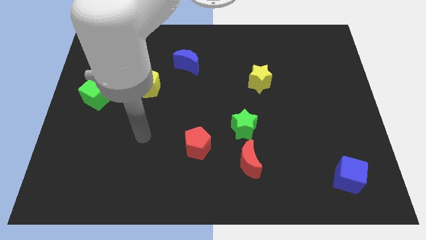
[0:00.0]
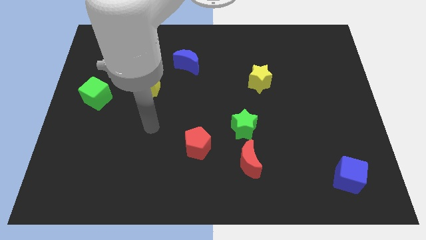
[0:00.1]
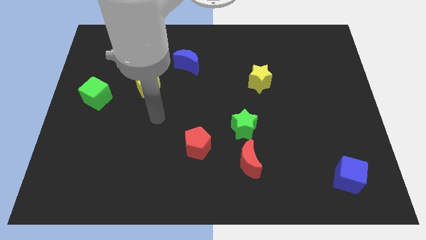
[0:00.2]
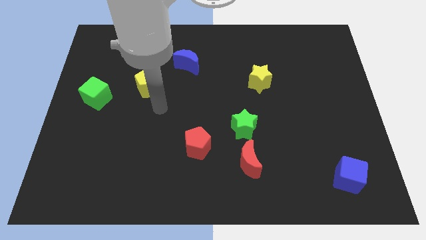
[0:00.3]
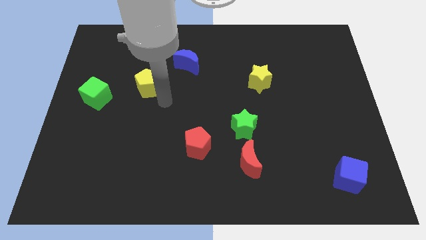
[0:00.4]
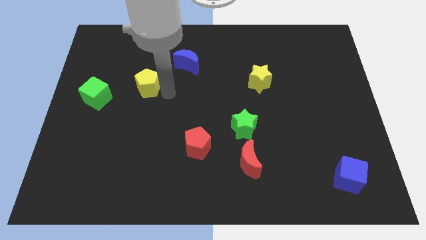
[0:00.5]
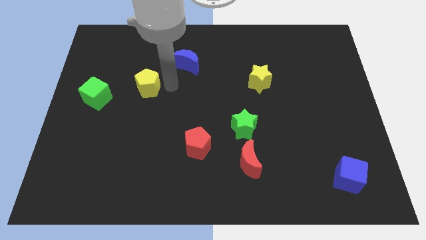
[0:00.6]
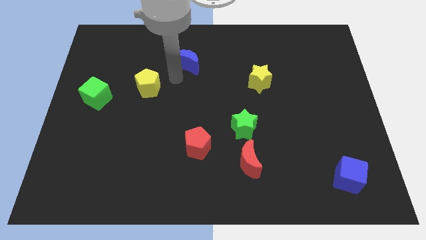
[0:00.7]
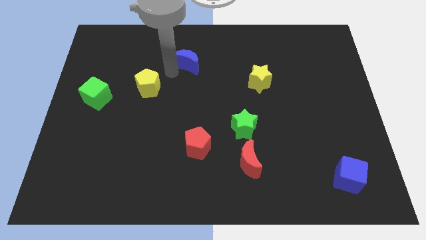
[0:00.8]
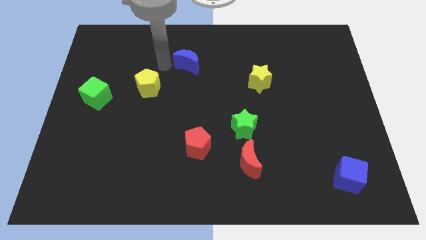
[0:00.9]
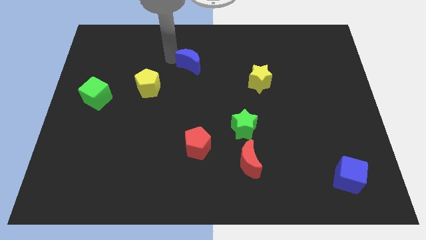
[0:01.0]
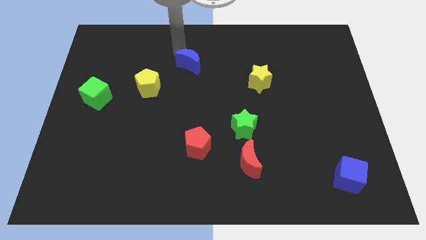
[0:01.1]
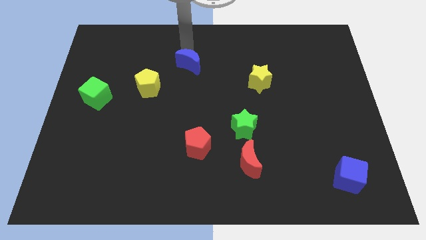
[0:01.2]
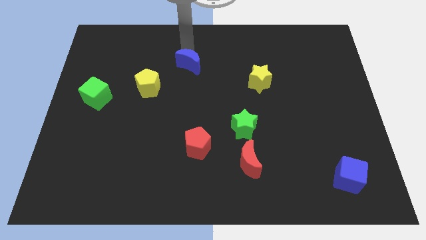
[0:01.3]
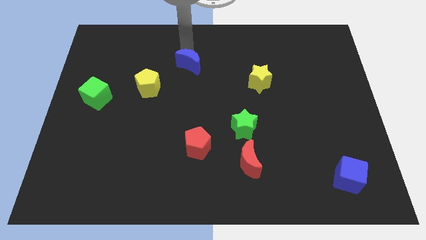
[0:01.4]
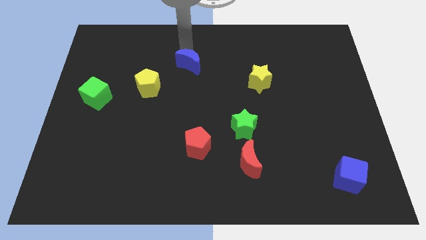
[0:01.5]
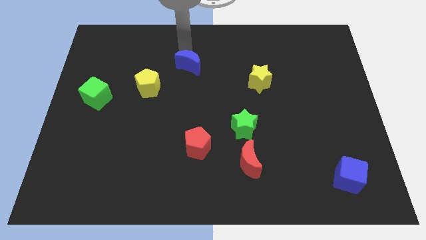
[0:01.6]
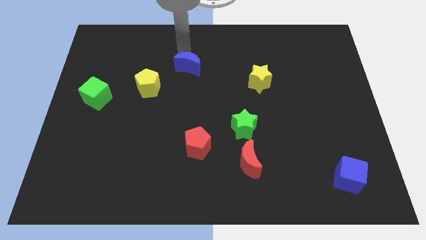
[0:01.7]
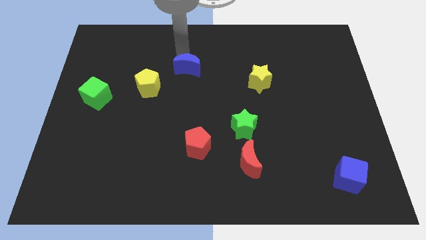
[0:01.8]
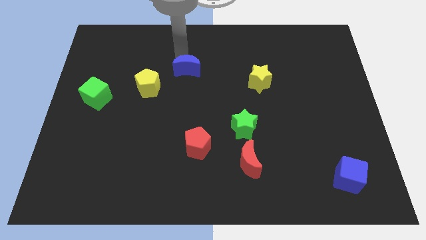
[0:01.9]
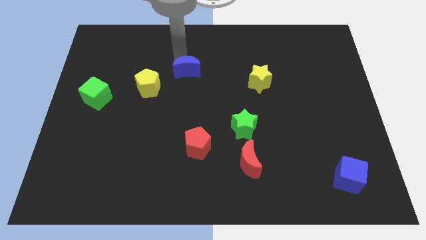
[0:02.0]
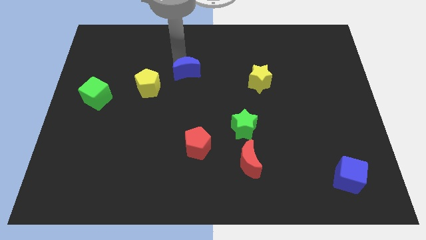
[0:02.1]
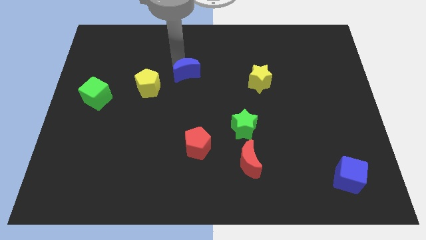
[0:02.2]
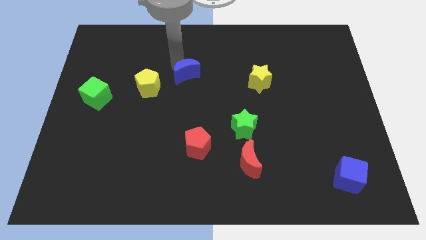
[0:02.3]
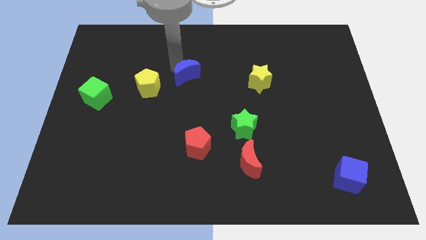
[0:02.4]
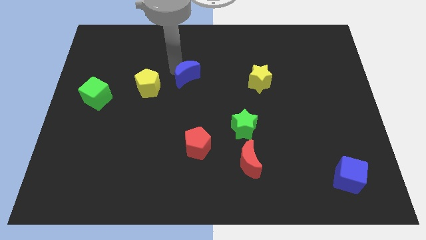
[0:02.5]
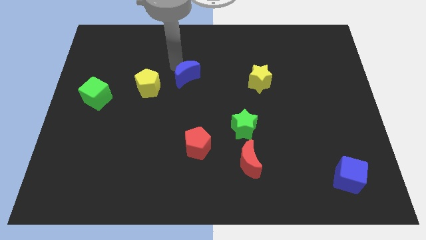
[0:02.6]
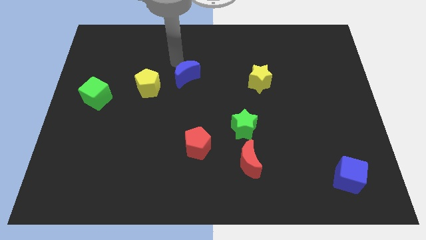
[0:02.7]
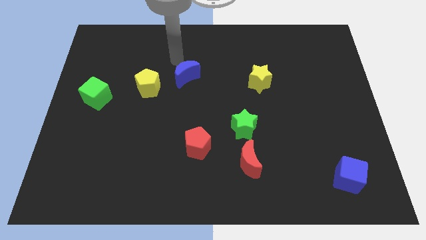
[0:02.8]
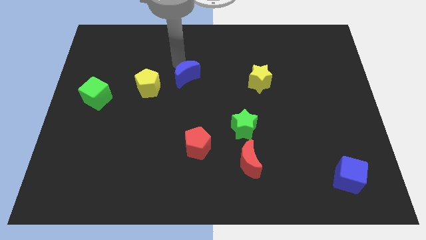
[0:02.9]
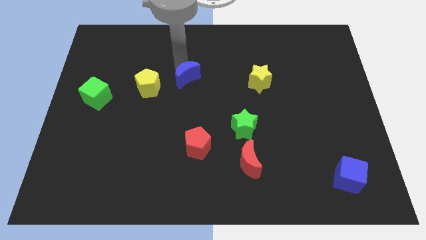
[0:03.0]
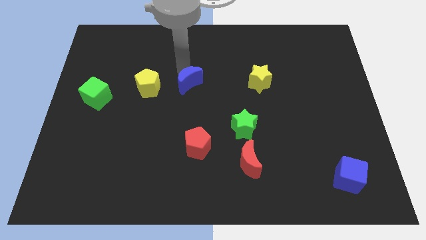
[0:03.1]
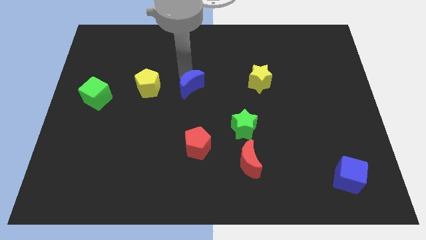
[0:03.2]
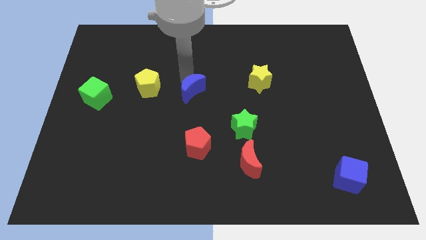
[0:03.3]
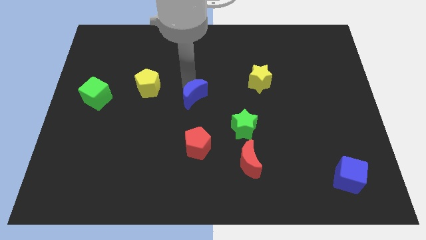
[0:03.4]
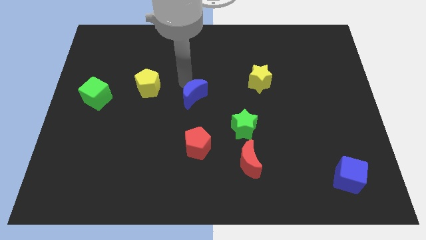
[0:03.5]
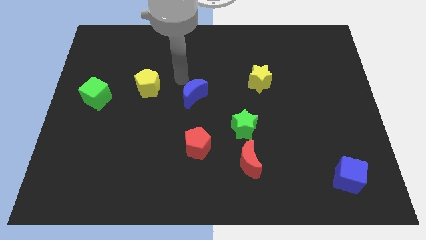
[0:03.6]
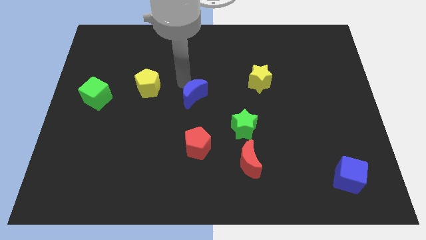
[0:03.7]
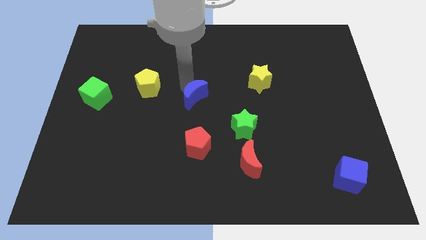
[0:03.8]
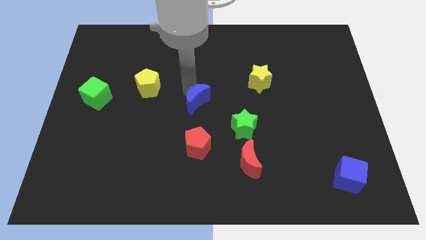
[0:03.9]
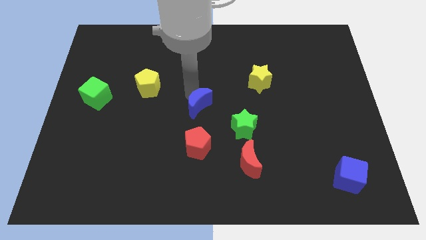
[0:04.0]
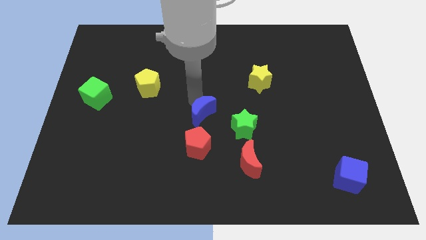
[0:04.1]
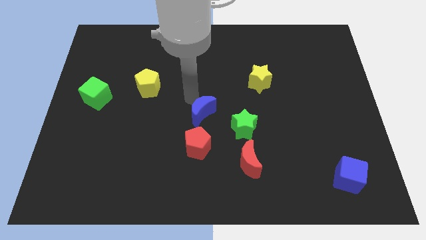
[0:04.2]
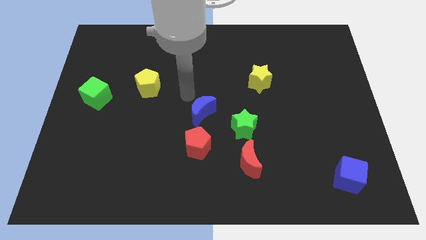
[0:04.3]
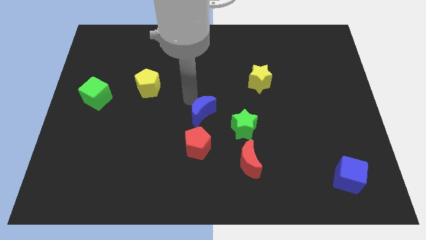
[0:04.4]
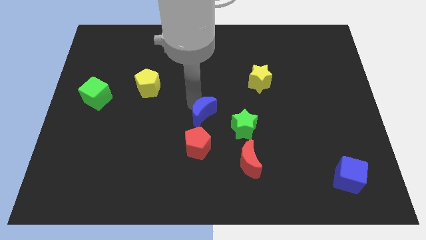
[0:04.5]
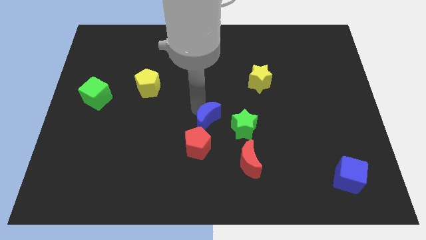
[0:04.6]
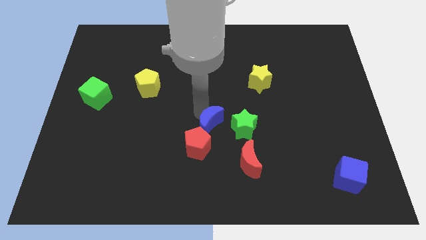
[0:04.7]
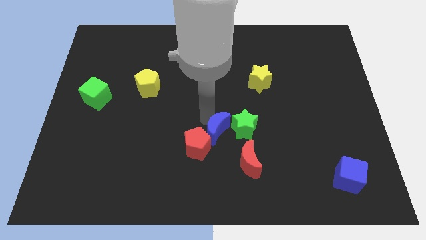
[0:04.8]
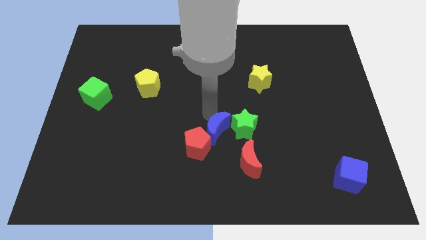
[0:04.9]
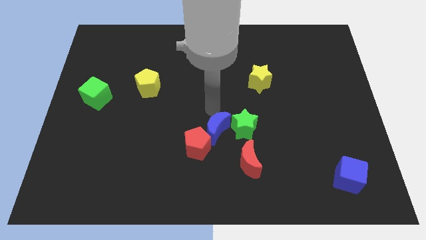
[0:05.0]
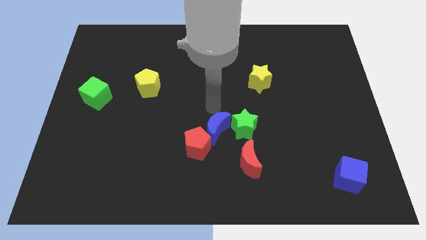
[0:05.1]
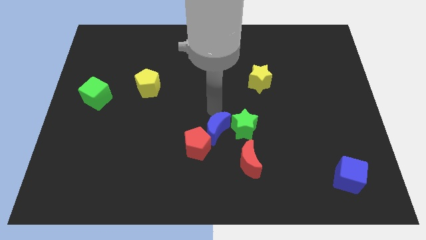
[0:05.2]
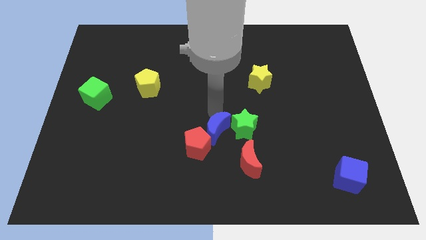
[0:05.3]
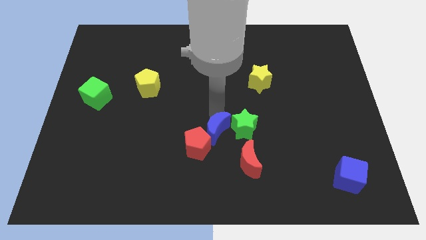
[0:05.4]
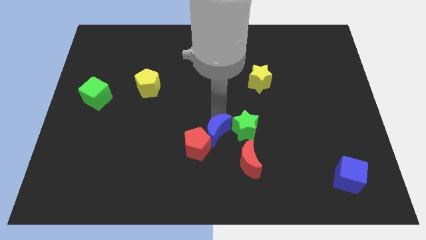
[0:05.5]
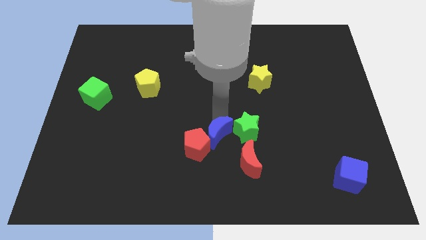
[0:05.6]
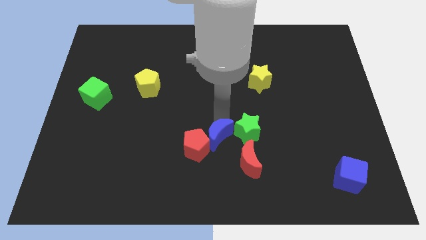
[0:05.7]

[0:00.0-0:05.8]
move the blue moon down

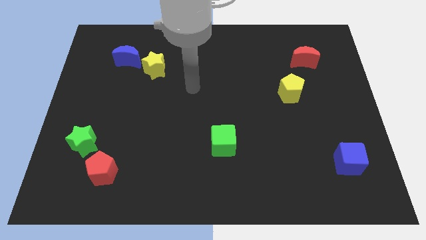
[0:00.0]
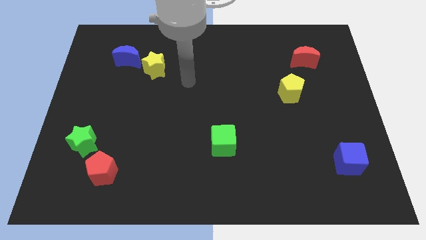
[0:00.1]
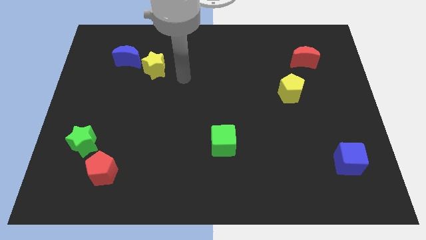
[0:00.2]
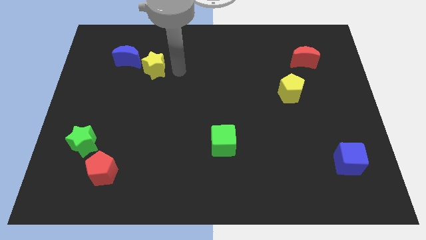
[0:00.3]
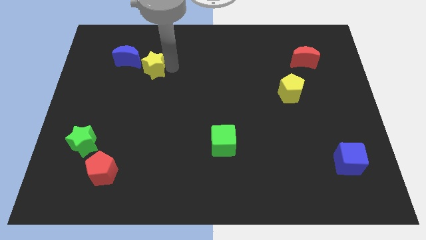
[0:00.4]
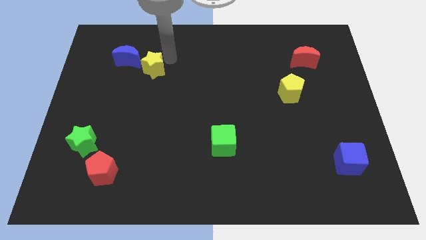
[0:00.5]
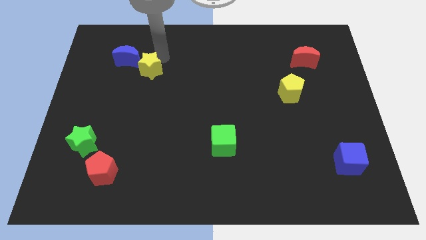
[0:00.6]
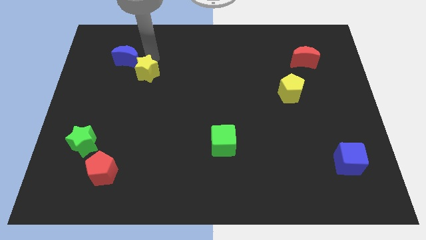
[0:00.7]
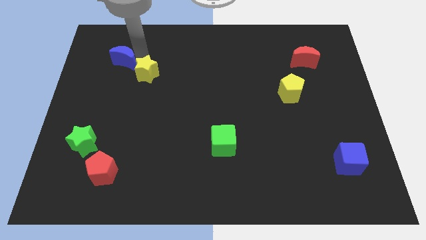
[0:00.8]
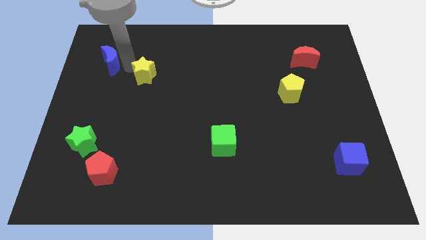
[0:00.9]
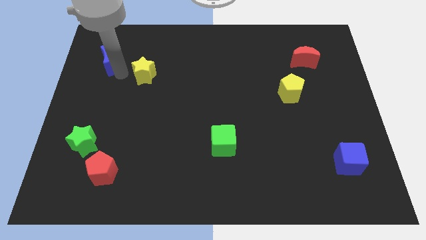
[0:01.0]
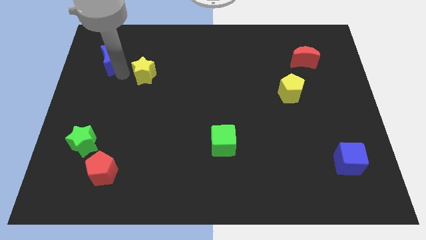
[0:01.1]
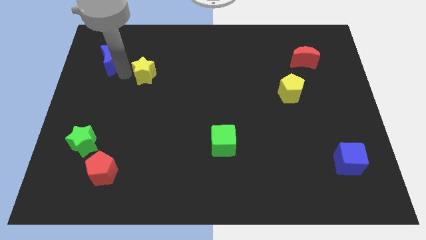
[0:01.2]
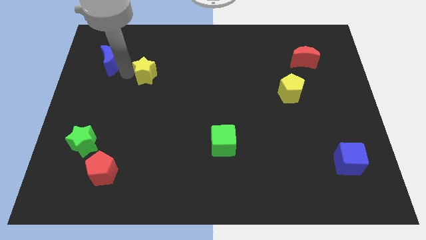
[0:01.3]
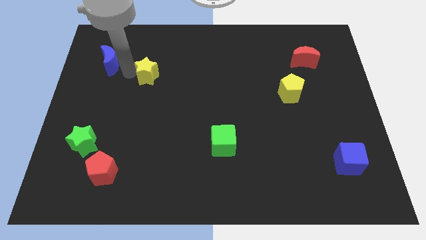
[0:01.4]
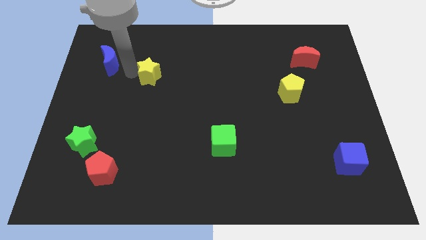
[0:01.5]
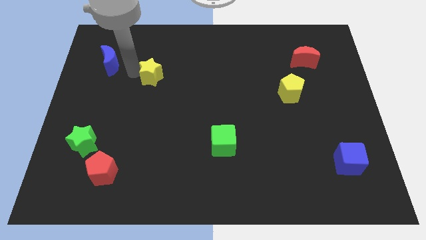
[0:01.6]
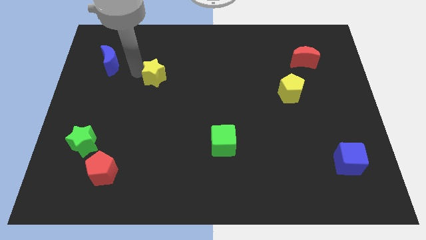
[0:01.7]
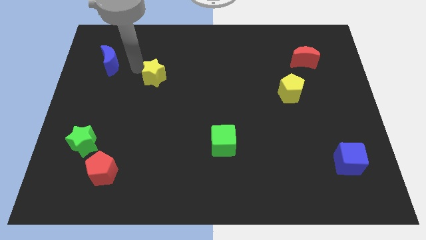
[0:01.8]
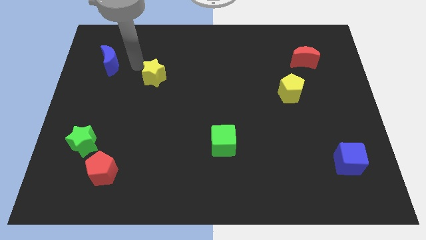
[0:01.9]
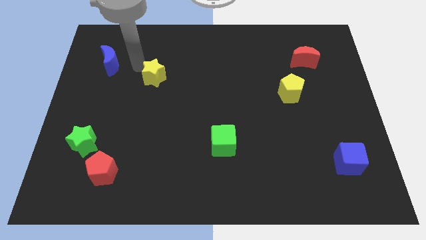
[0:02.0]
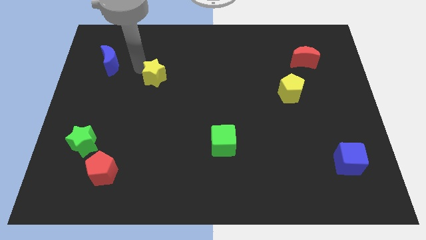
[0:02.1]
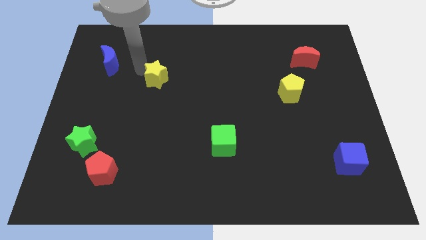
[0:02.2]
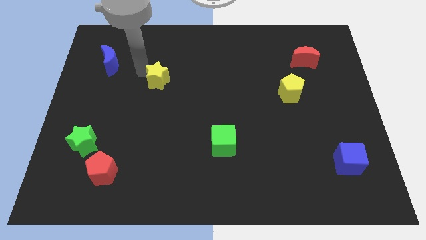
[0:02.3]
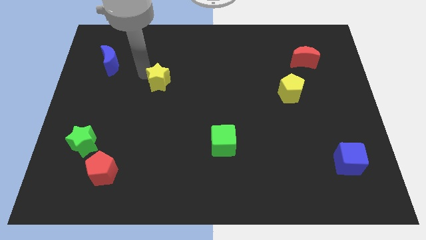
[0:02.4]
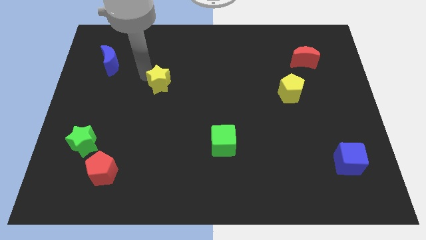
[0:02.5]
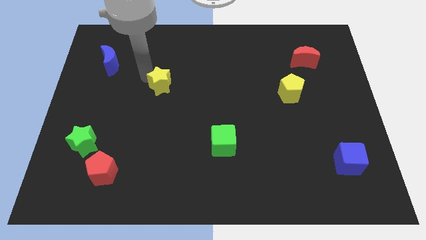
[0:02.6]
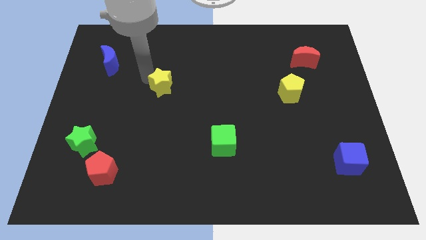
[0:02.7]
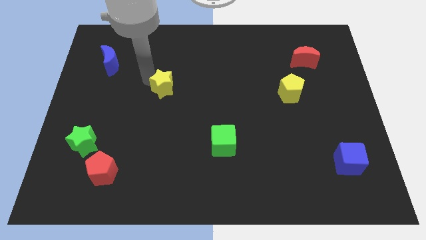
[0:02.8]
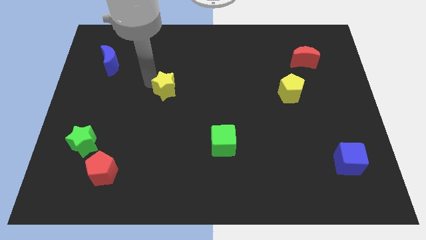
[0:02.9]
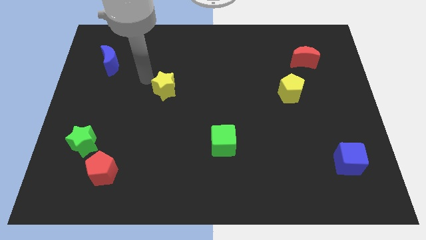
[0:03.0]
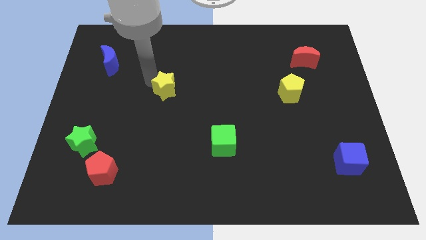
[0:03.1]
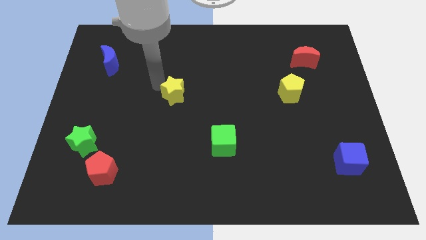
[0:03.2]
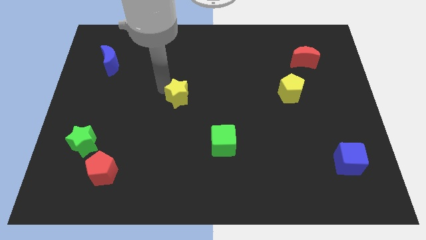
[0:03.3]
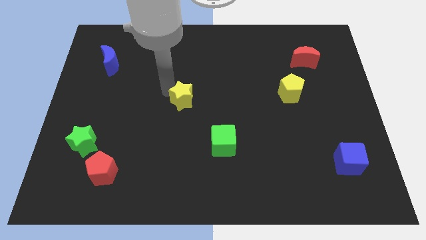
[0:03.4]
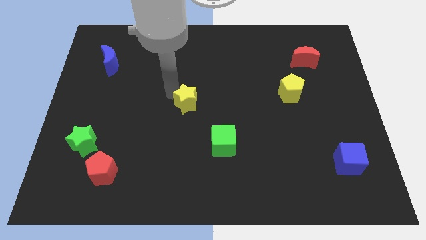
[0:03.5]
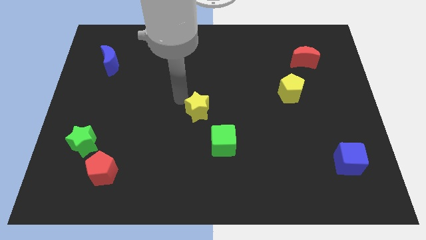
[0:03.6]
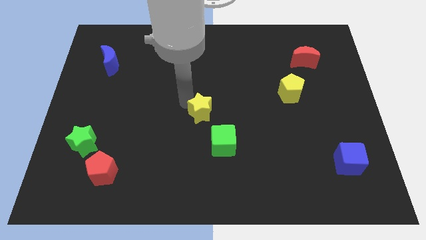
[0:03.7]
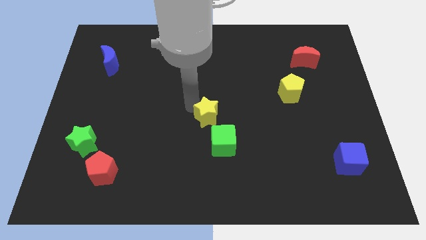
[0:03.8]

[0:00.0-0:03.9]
move the yellow star down and then to the right
